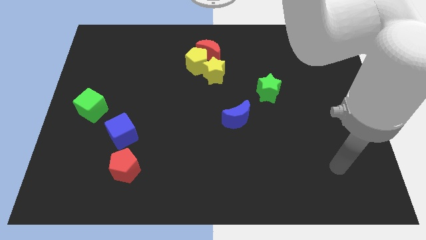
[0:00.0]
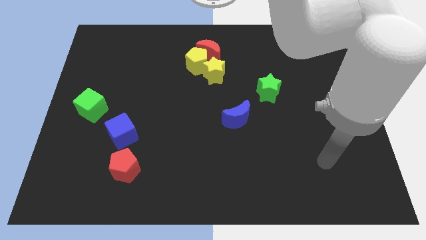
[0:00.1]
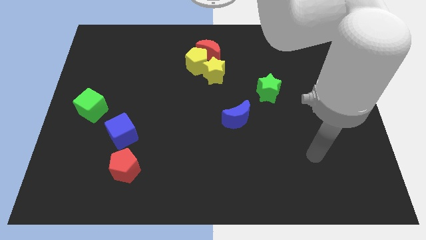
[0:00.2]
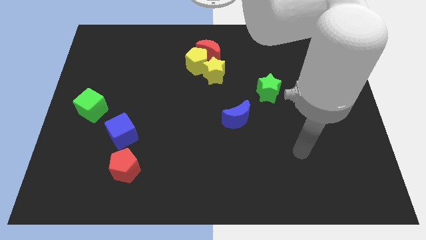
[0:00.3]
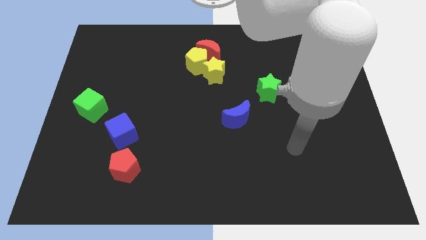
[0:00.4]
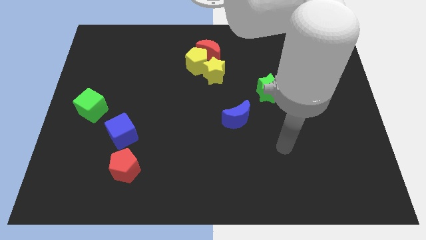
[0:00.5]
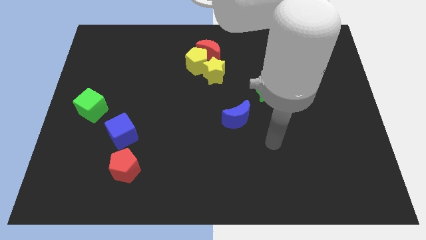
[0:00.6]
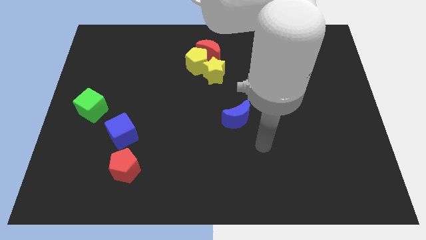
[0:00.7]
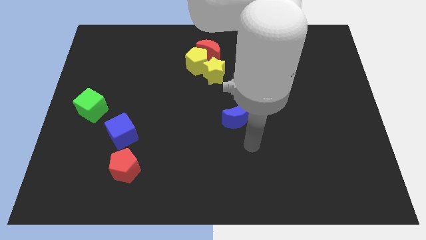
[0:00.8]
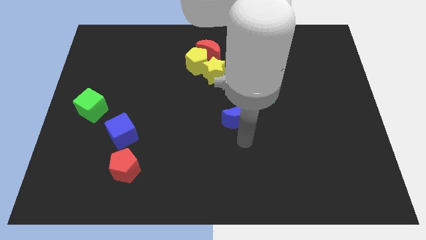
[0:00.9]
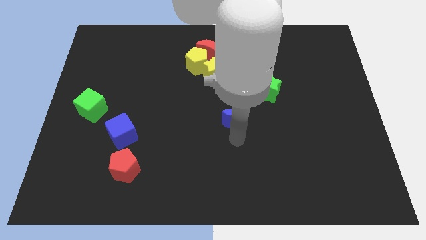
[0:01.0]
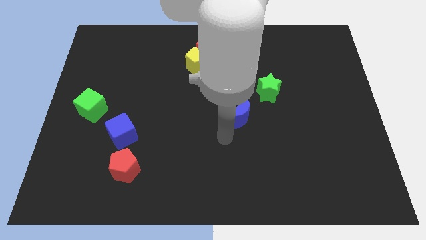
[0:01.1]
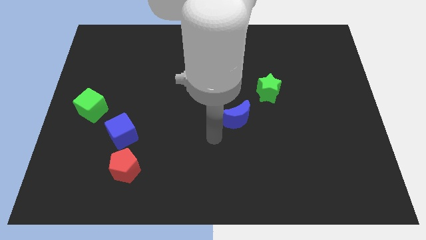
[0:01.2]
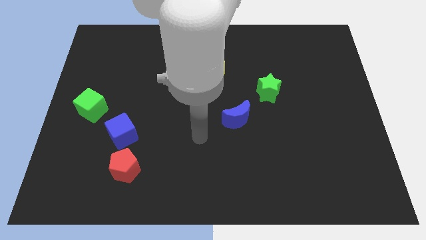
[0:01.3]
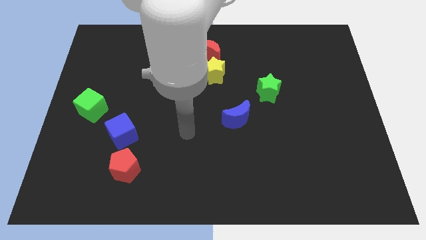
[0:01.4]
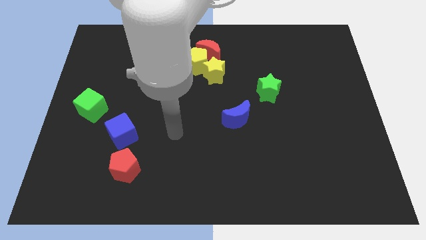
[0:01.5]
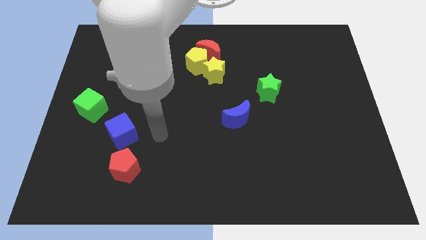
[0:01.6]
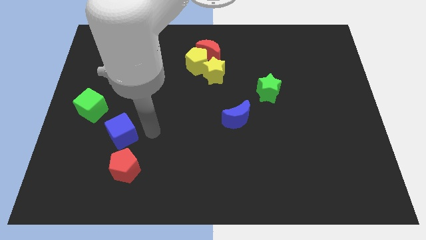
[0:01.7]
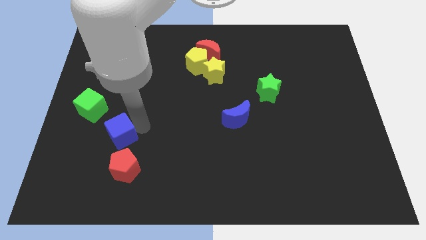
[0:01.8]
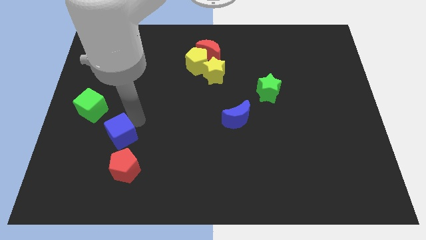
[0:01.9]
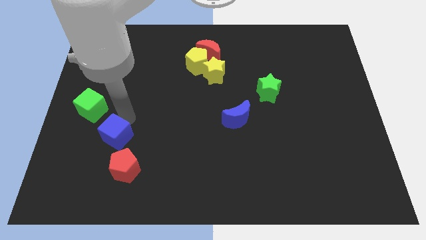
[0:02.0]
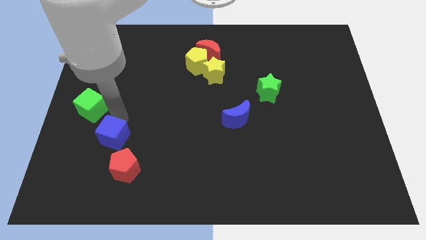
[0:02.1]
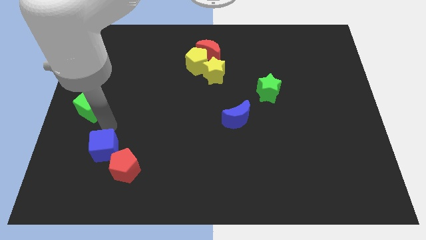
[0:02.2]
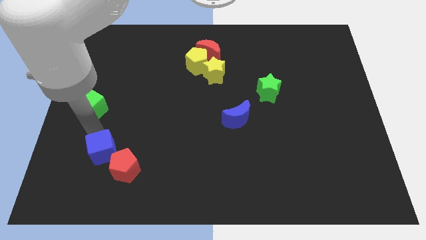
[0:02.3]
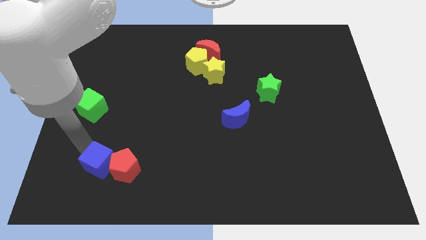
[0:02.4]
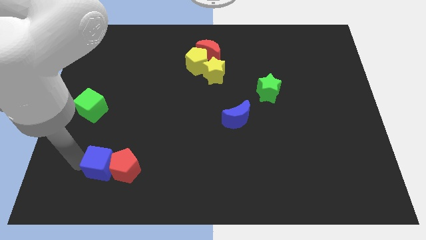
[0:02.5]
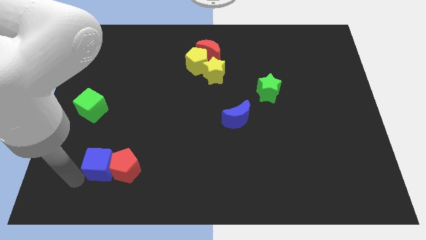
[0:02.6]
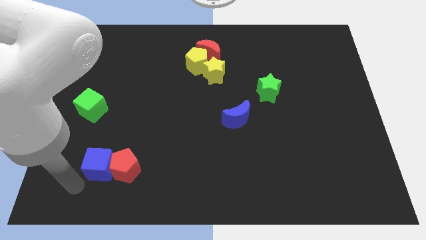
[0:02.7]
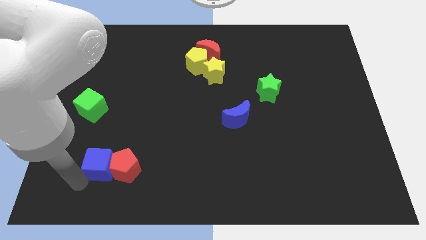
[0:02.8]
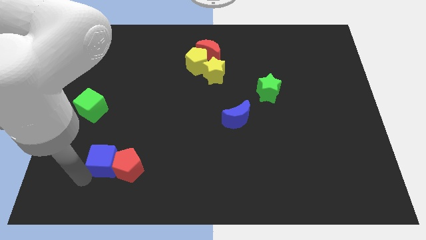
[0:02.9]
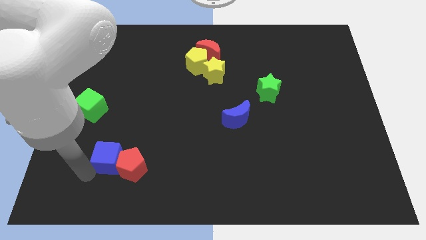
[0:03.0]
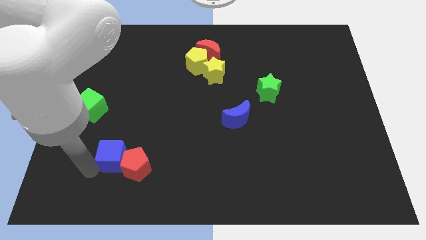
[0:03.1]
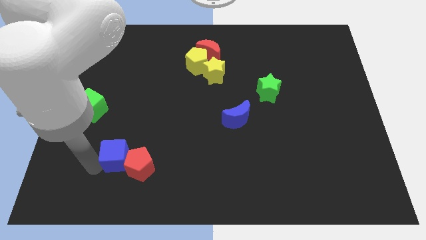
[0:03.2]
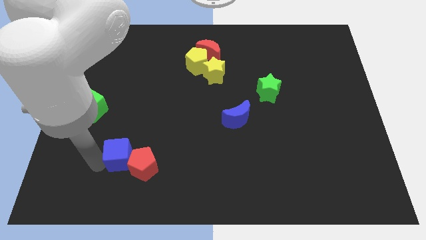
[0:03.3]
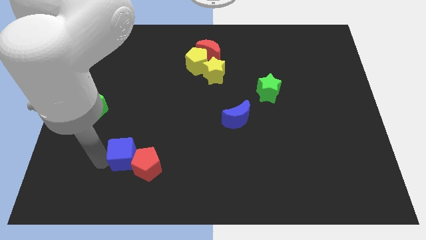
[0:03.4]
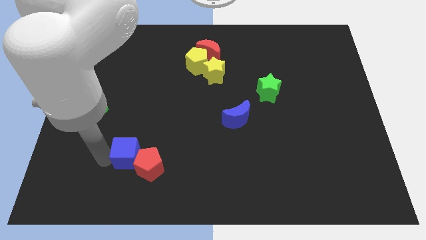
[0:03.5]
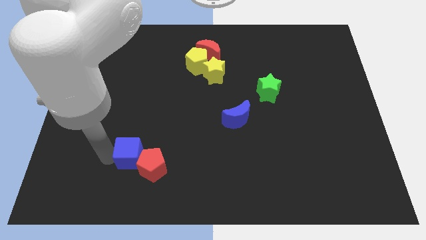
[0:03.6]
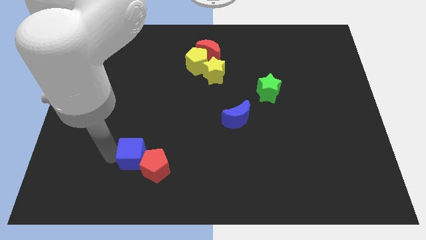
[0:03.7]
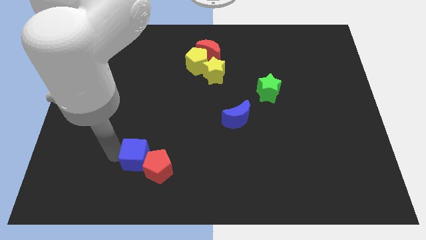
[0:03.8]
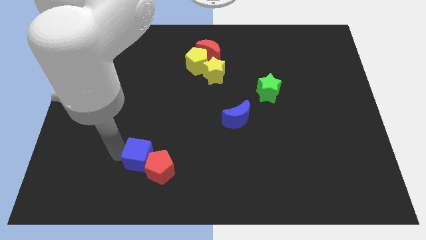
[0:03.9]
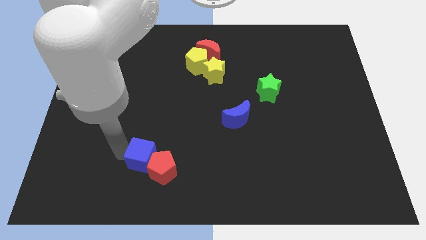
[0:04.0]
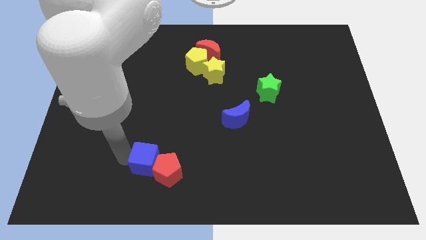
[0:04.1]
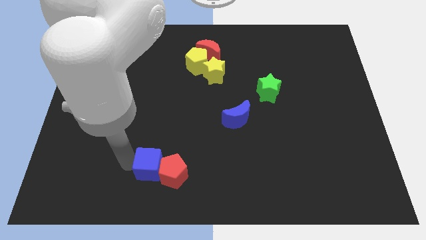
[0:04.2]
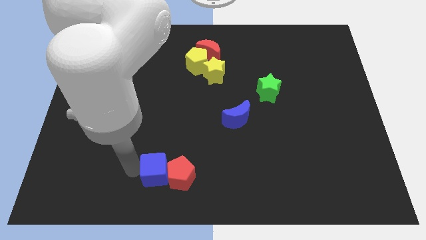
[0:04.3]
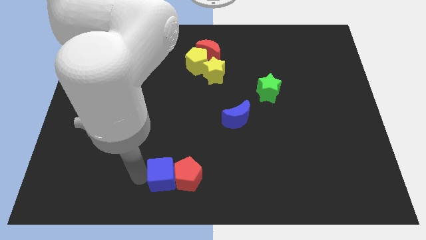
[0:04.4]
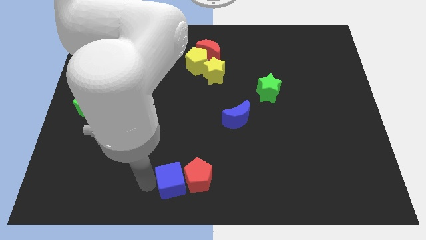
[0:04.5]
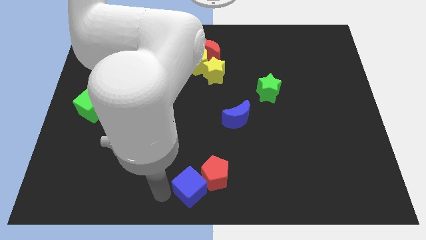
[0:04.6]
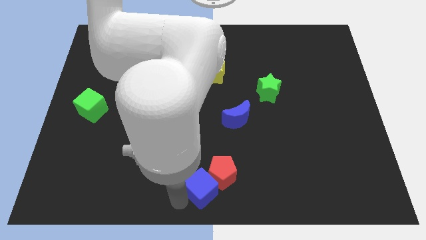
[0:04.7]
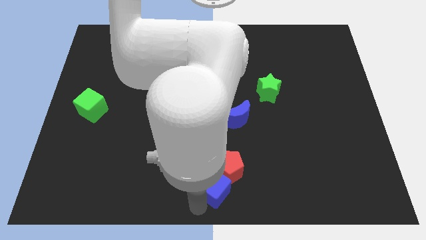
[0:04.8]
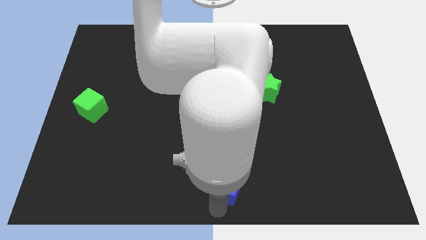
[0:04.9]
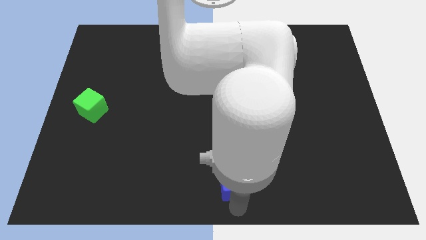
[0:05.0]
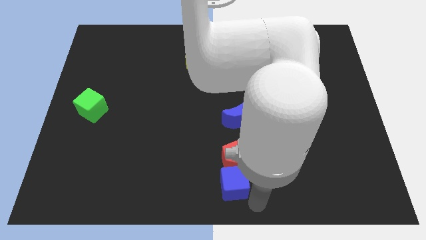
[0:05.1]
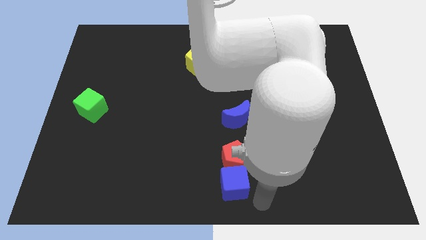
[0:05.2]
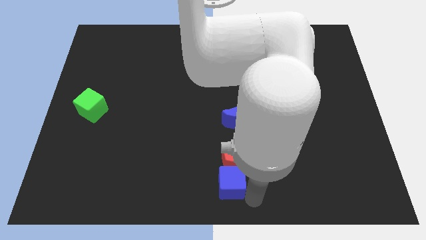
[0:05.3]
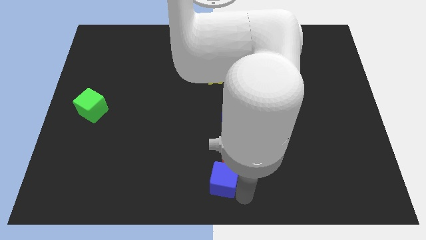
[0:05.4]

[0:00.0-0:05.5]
push the blue cube slightly right

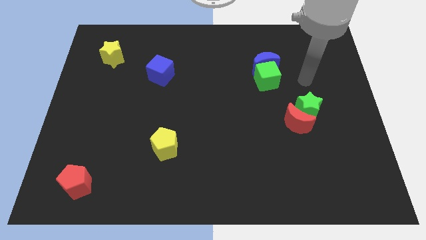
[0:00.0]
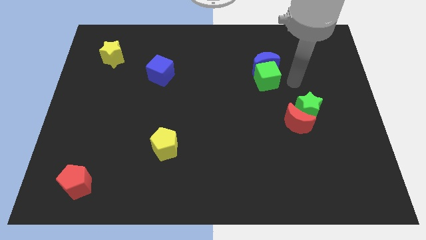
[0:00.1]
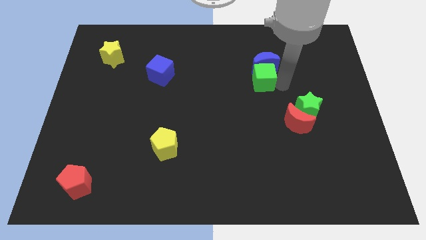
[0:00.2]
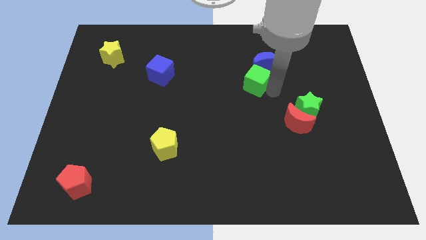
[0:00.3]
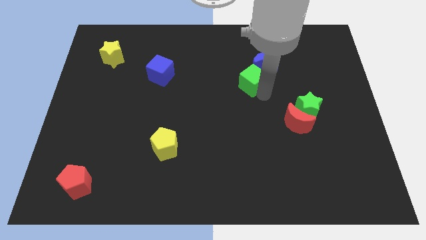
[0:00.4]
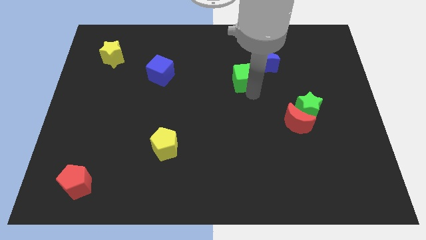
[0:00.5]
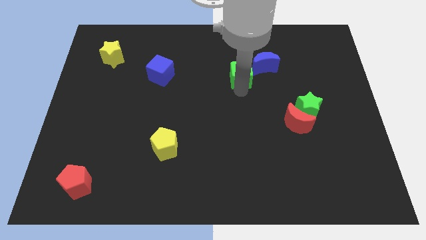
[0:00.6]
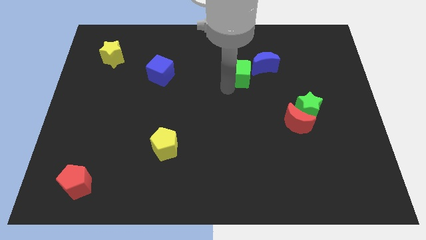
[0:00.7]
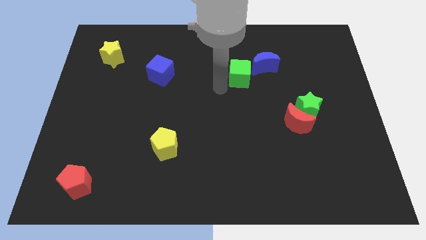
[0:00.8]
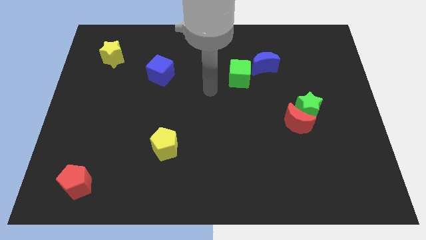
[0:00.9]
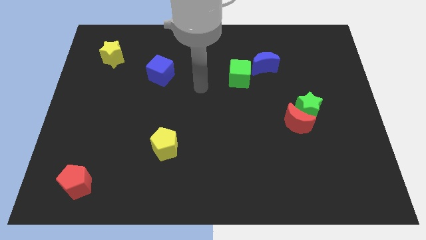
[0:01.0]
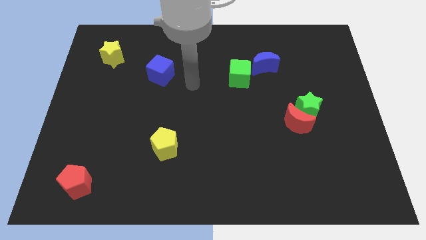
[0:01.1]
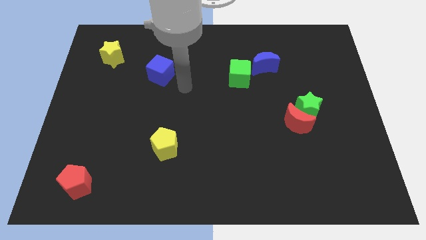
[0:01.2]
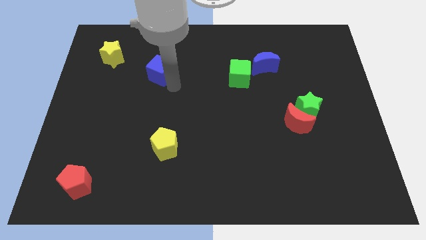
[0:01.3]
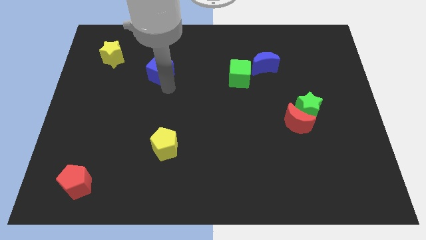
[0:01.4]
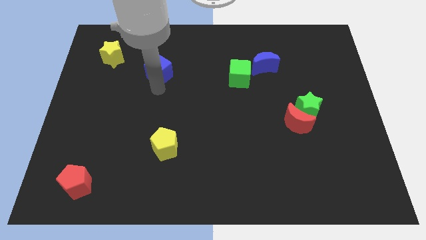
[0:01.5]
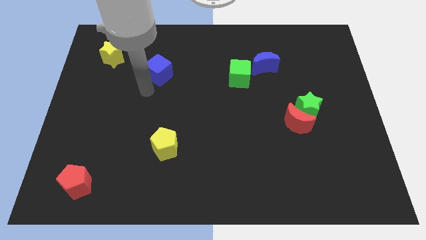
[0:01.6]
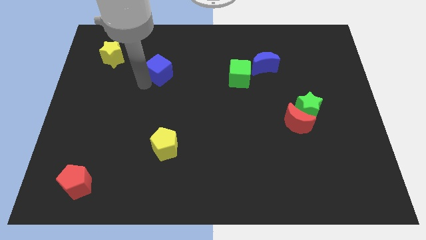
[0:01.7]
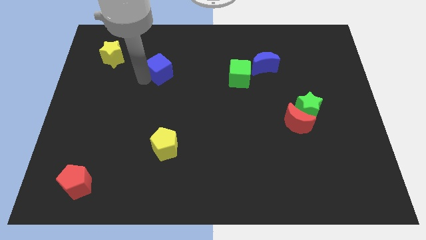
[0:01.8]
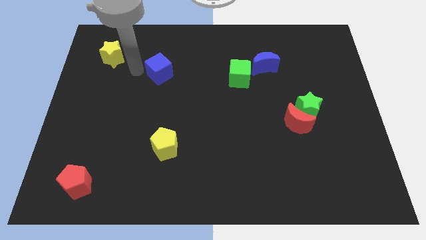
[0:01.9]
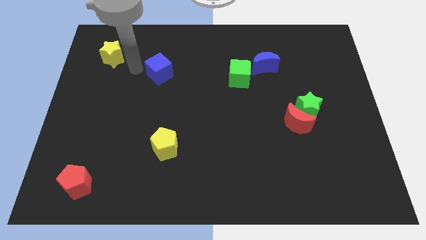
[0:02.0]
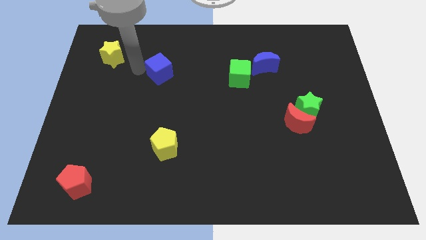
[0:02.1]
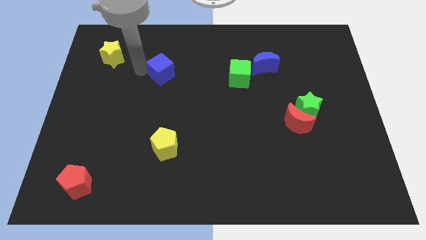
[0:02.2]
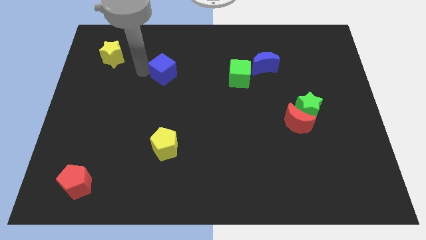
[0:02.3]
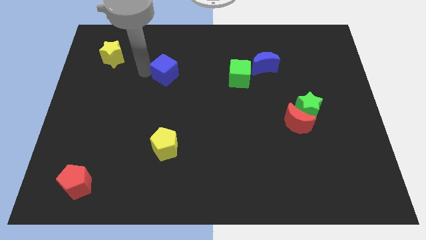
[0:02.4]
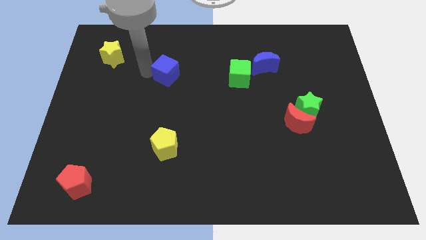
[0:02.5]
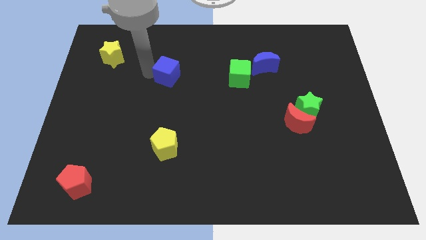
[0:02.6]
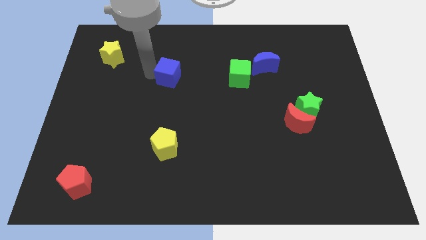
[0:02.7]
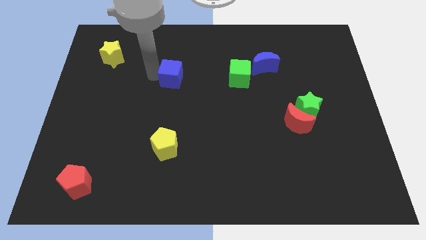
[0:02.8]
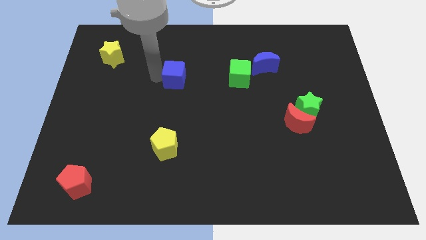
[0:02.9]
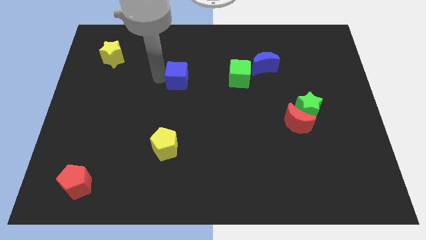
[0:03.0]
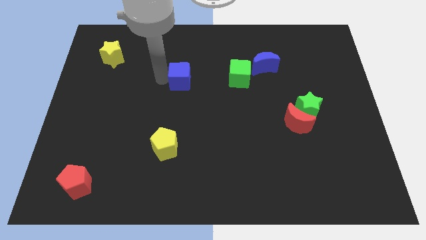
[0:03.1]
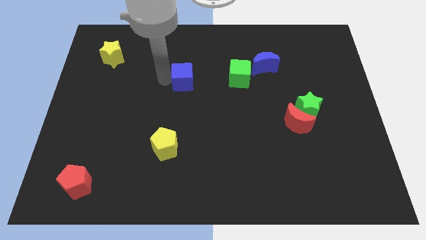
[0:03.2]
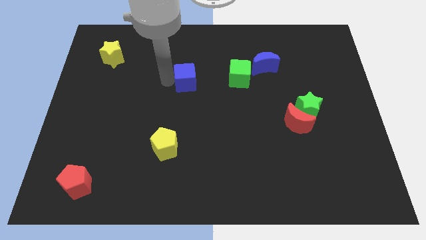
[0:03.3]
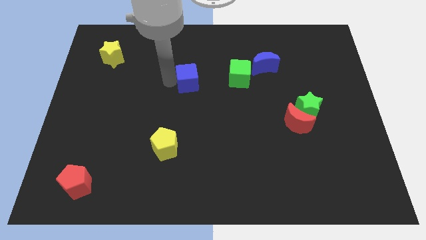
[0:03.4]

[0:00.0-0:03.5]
push the blue cube a bit to the right
